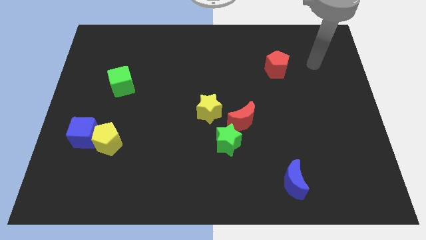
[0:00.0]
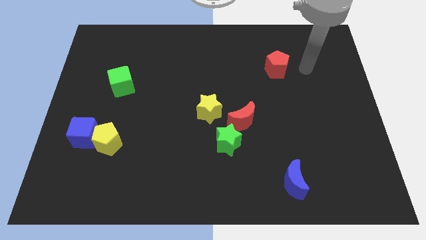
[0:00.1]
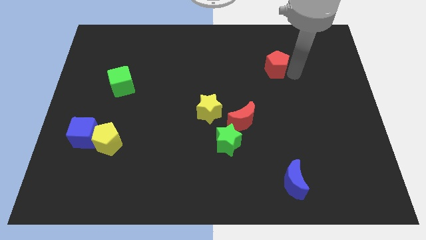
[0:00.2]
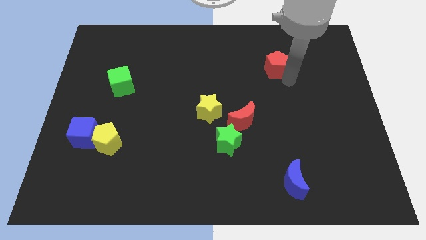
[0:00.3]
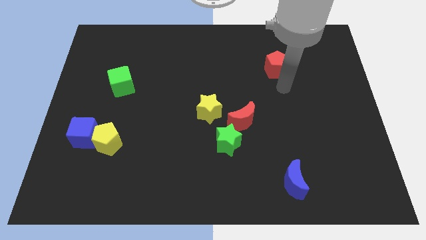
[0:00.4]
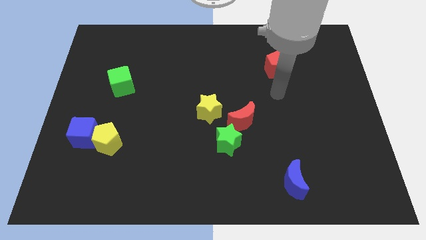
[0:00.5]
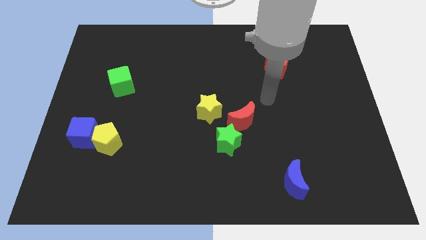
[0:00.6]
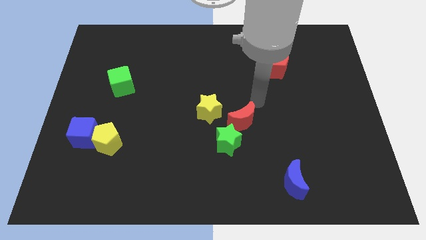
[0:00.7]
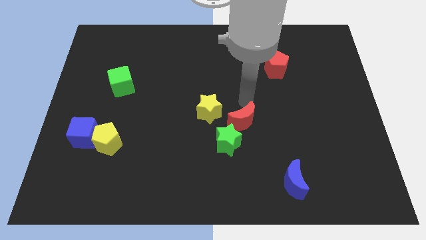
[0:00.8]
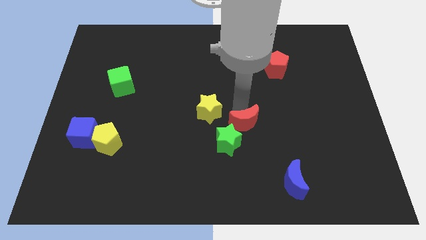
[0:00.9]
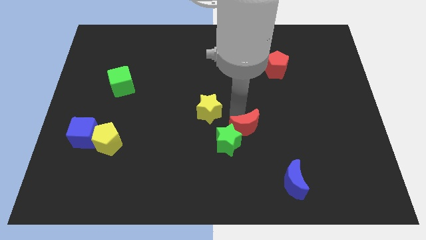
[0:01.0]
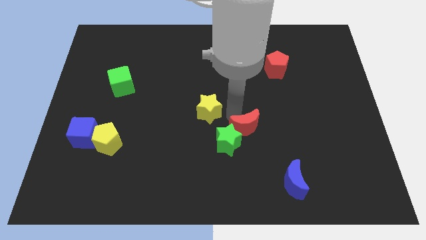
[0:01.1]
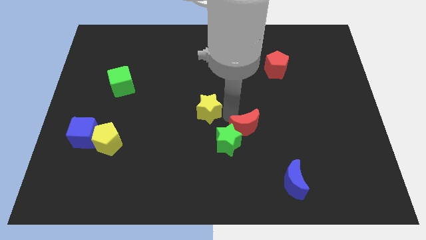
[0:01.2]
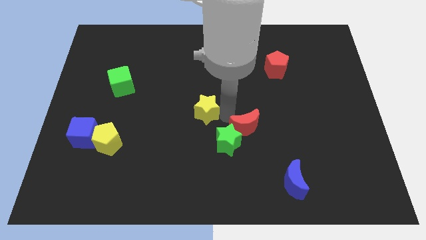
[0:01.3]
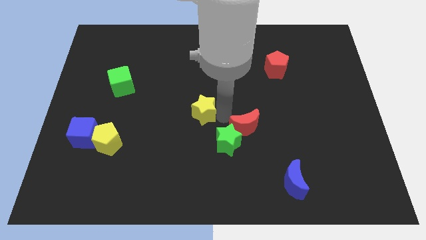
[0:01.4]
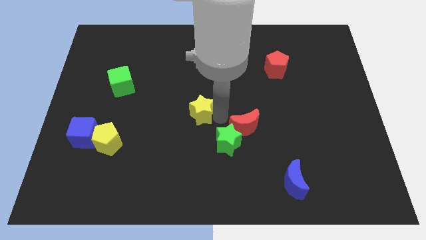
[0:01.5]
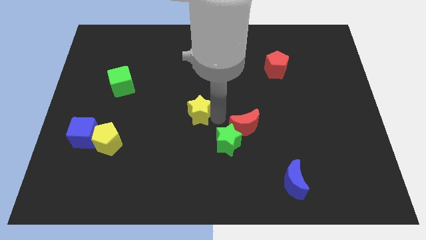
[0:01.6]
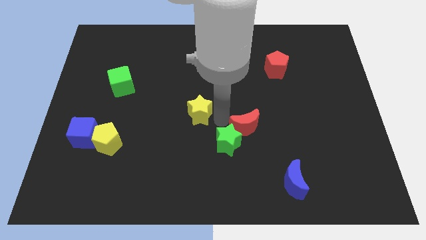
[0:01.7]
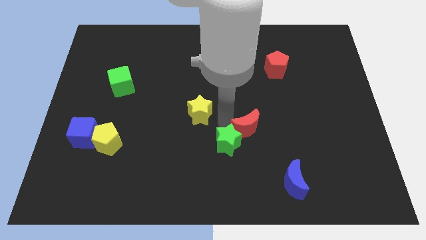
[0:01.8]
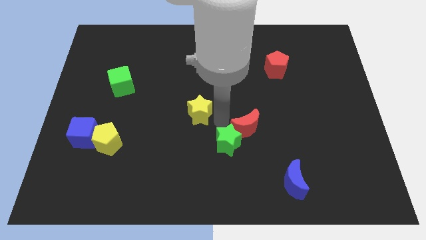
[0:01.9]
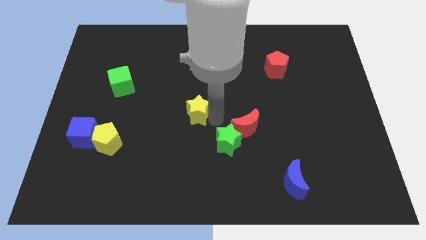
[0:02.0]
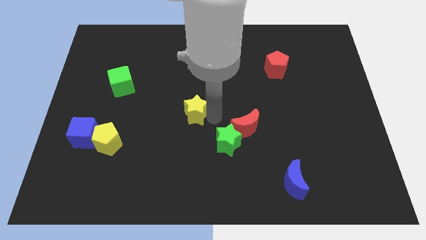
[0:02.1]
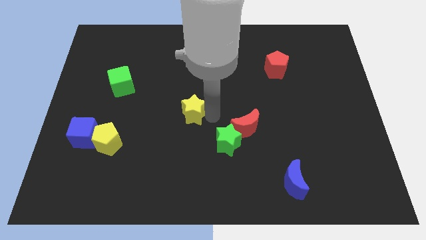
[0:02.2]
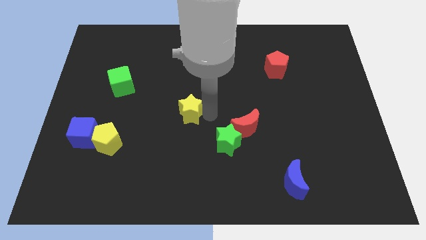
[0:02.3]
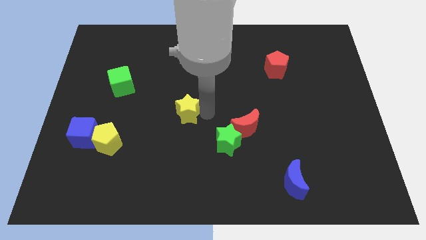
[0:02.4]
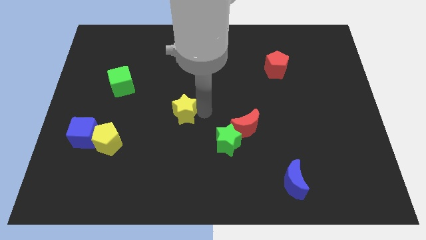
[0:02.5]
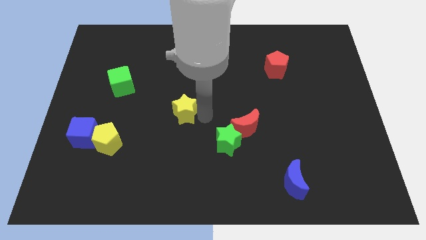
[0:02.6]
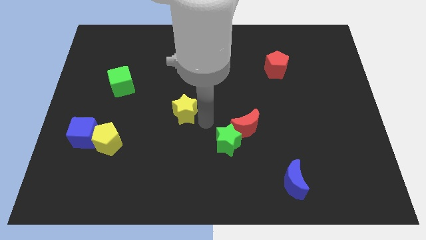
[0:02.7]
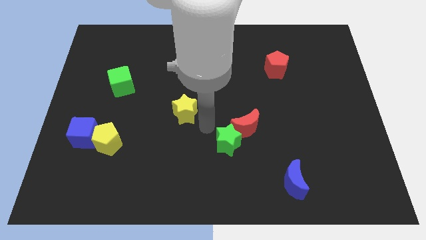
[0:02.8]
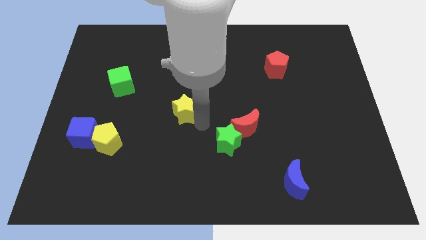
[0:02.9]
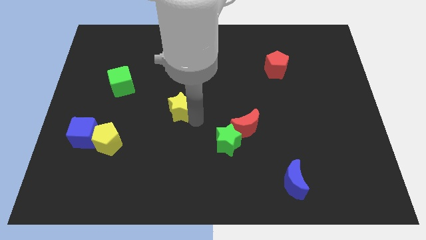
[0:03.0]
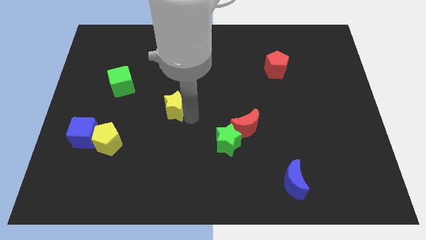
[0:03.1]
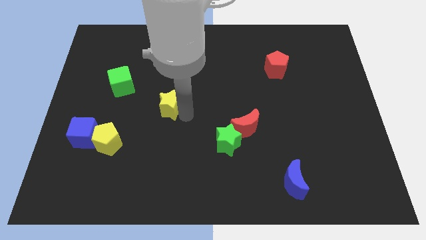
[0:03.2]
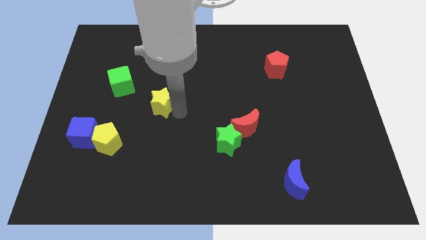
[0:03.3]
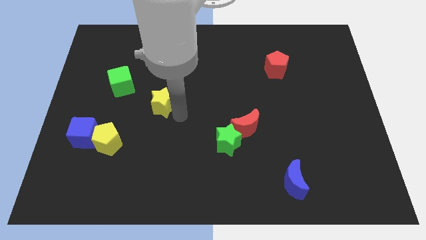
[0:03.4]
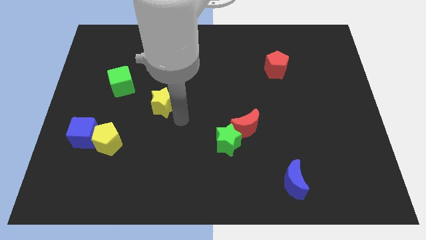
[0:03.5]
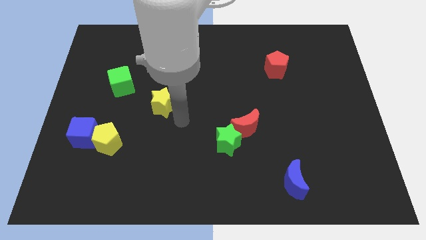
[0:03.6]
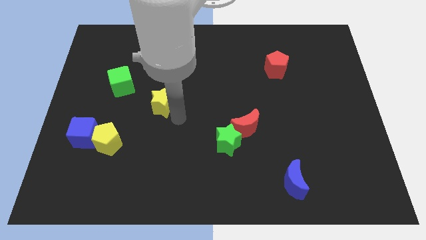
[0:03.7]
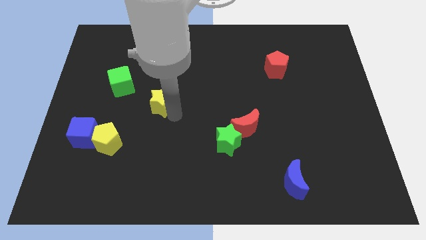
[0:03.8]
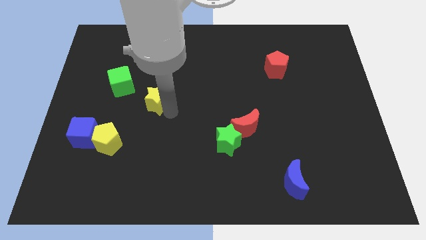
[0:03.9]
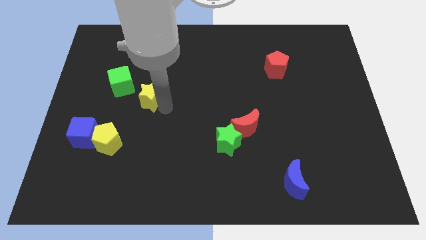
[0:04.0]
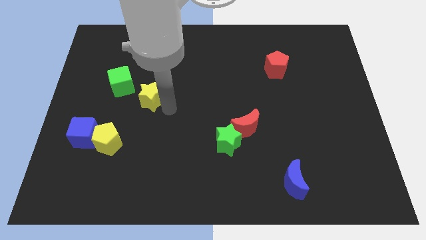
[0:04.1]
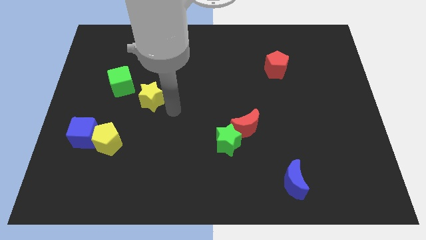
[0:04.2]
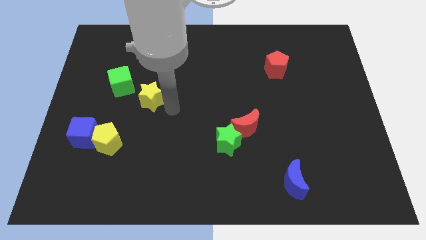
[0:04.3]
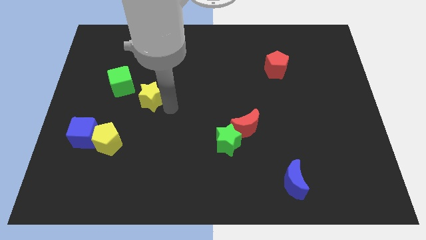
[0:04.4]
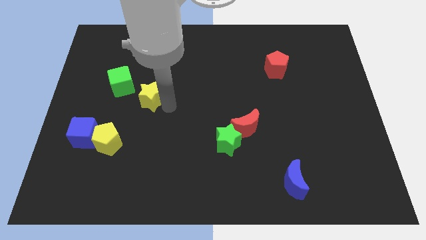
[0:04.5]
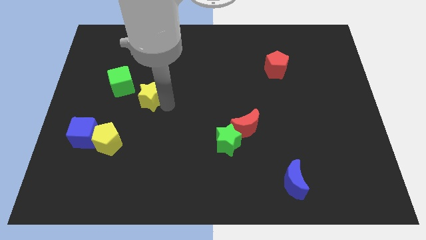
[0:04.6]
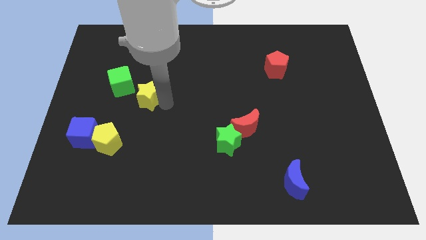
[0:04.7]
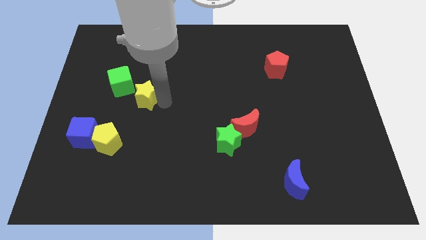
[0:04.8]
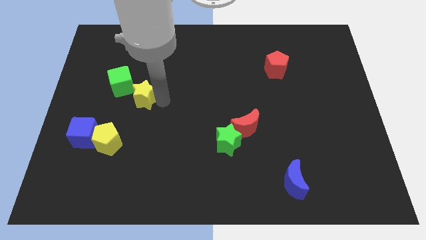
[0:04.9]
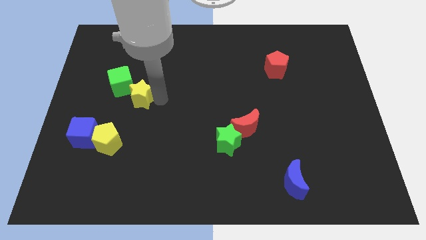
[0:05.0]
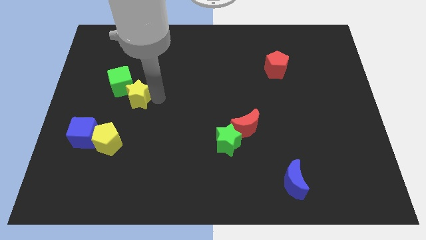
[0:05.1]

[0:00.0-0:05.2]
slide the yellow star to the green cube
